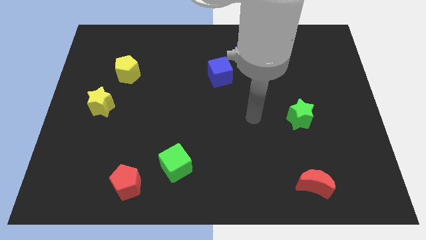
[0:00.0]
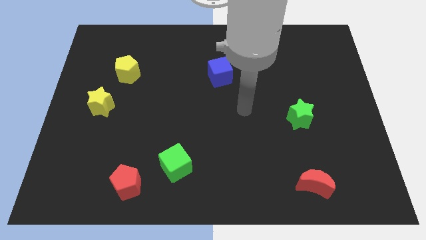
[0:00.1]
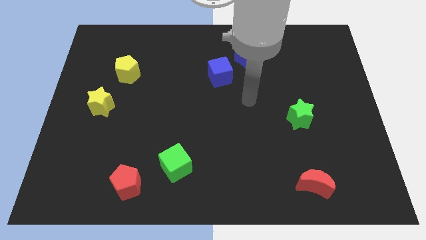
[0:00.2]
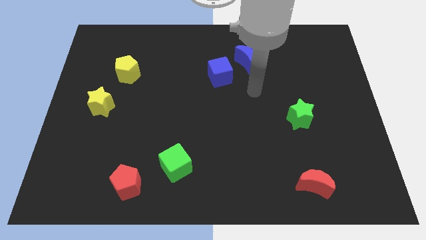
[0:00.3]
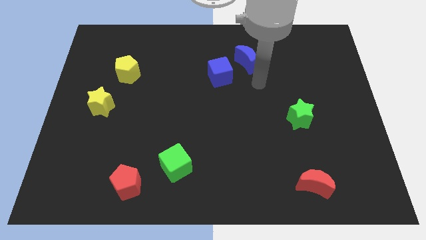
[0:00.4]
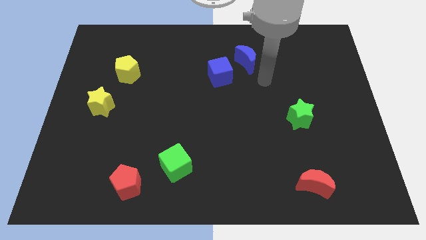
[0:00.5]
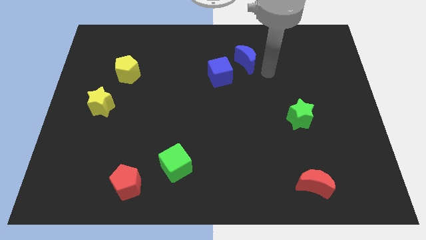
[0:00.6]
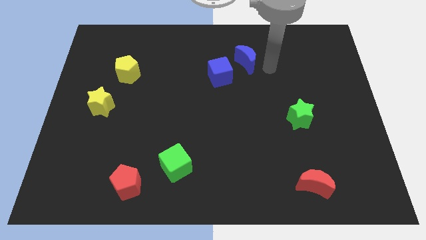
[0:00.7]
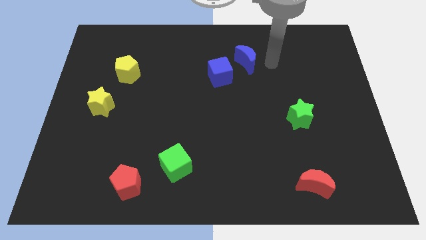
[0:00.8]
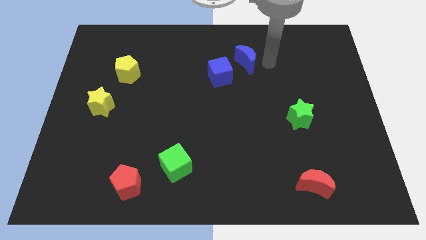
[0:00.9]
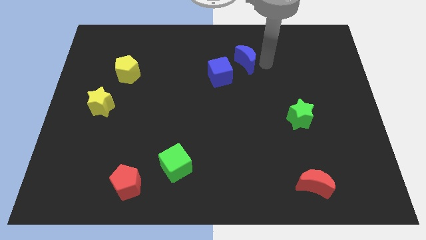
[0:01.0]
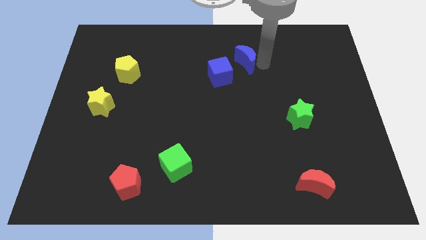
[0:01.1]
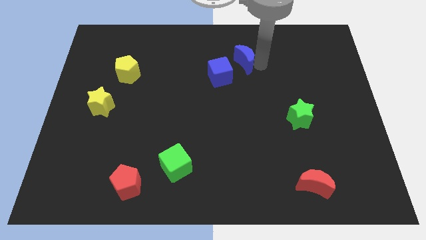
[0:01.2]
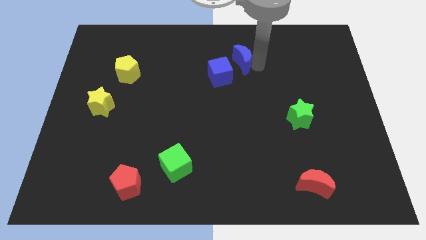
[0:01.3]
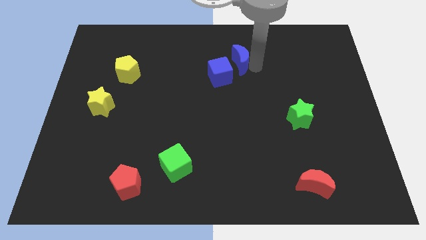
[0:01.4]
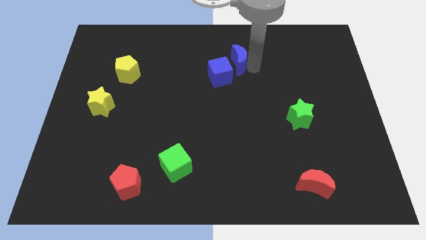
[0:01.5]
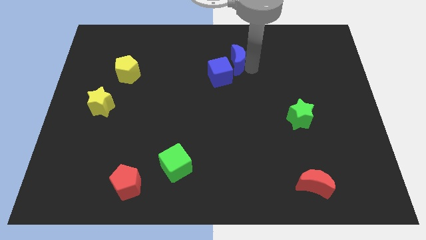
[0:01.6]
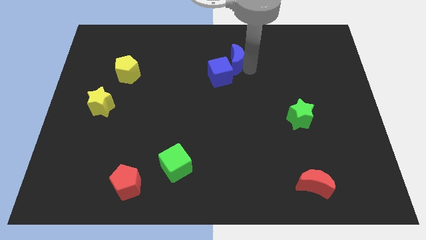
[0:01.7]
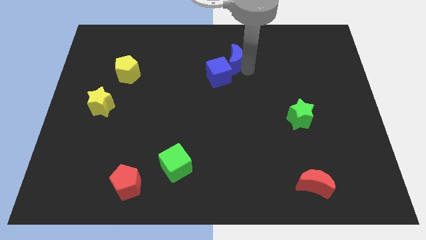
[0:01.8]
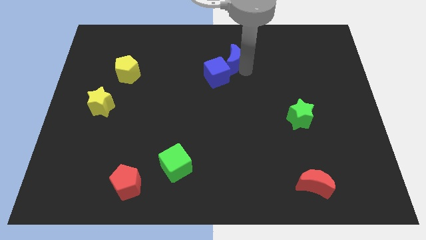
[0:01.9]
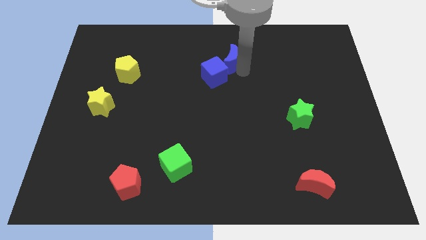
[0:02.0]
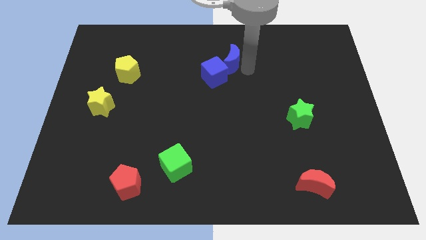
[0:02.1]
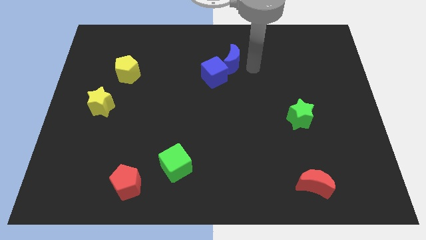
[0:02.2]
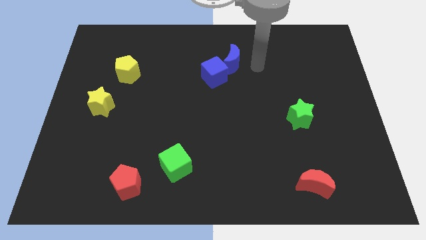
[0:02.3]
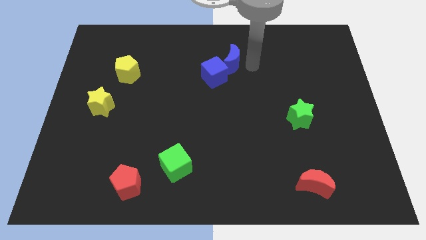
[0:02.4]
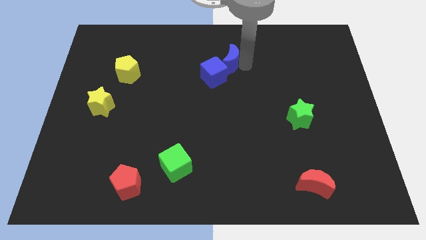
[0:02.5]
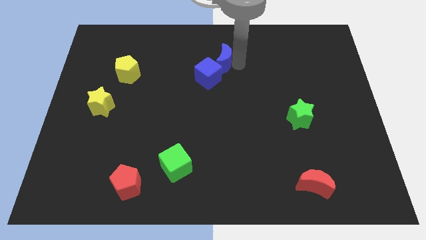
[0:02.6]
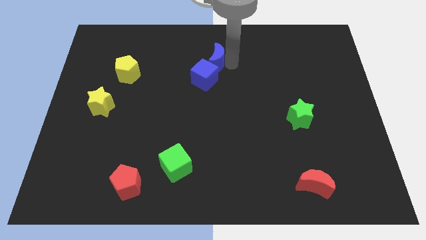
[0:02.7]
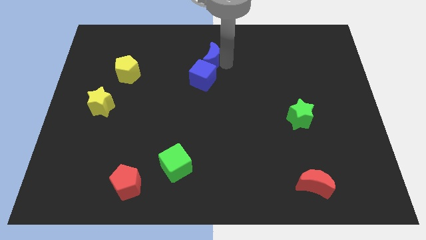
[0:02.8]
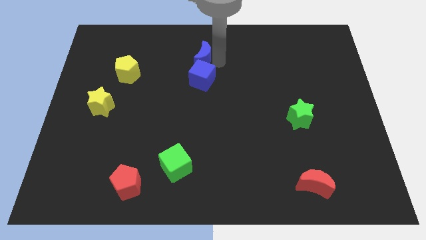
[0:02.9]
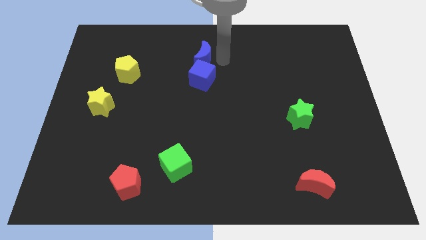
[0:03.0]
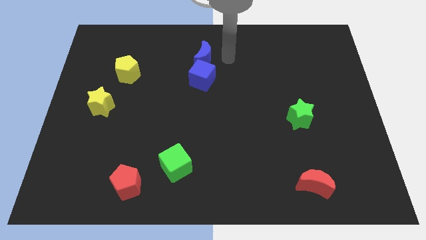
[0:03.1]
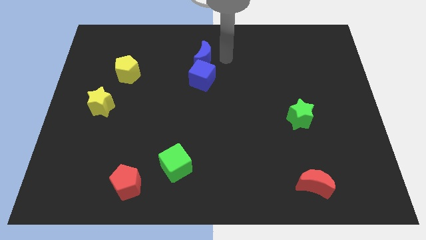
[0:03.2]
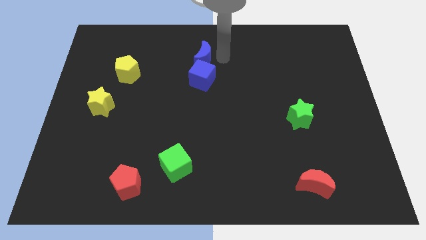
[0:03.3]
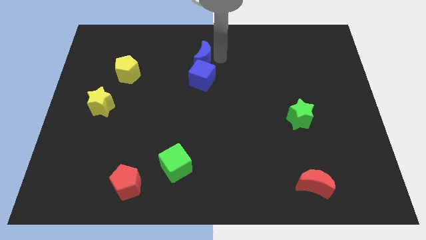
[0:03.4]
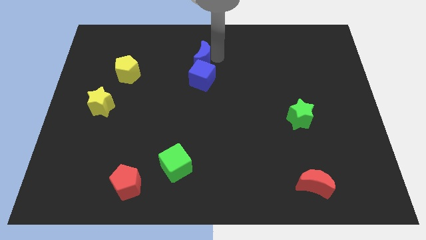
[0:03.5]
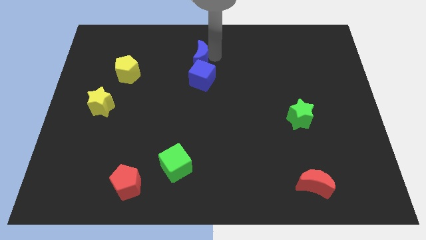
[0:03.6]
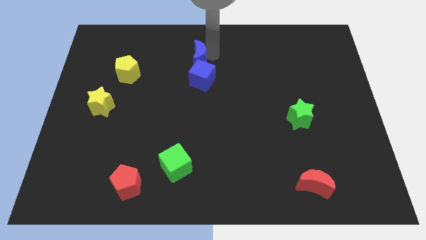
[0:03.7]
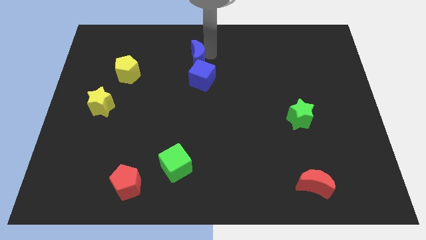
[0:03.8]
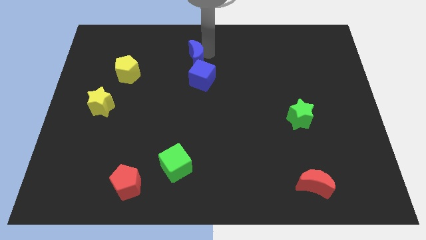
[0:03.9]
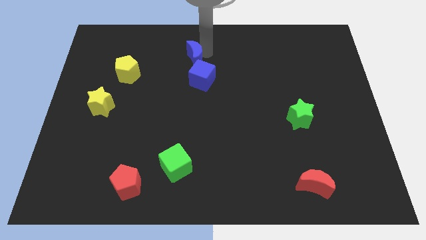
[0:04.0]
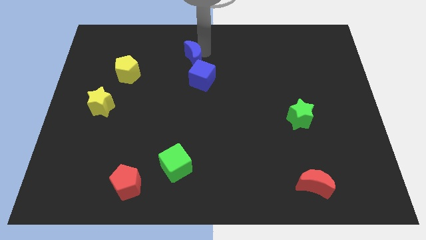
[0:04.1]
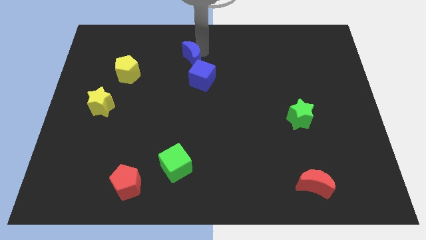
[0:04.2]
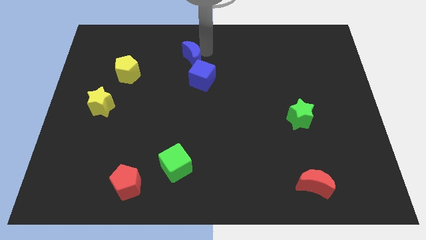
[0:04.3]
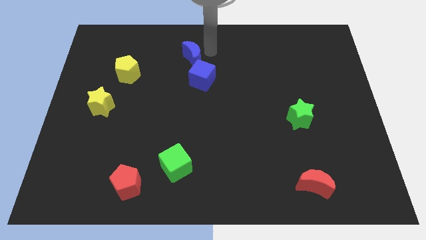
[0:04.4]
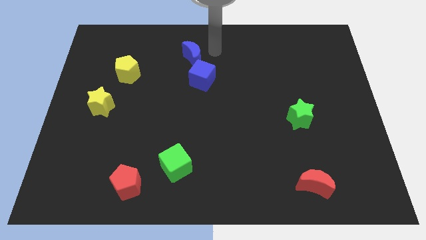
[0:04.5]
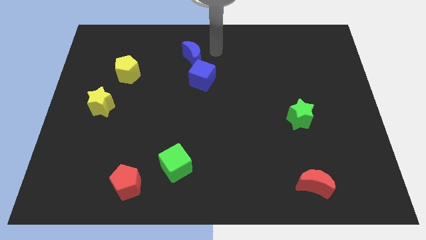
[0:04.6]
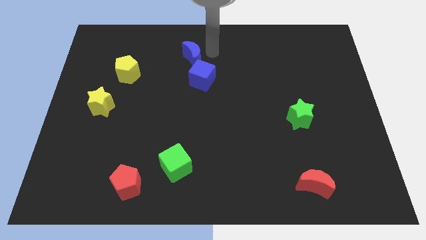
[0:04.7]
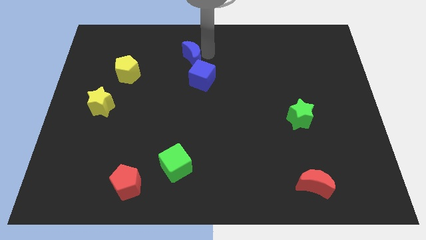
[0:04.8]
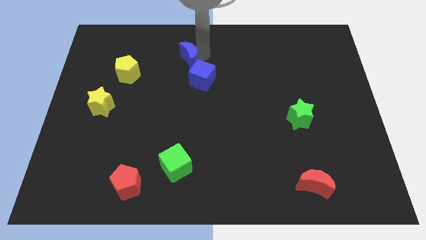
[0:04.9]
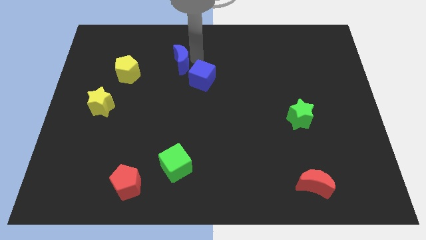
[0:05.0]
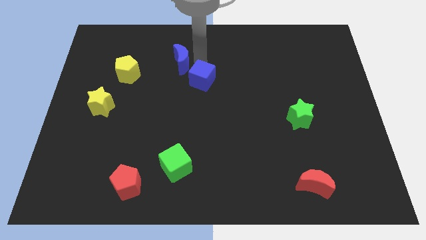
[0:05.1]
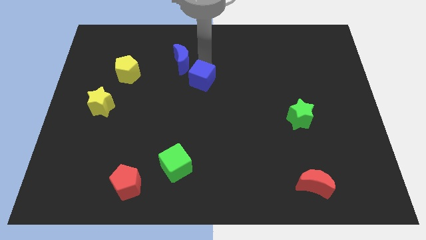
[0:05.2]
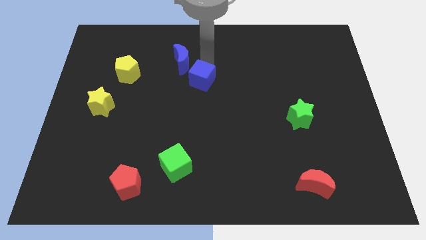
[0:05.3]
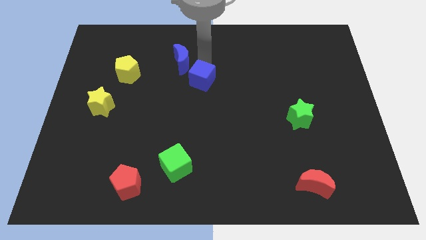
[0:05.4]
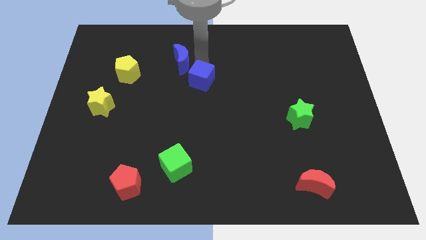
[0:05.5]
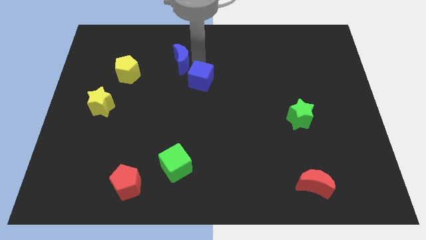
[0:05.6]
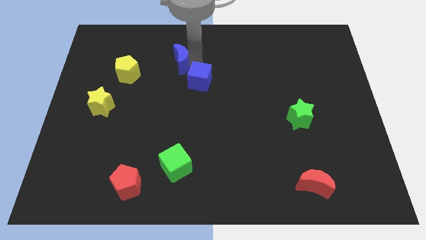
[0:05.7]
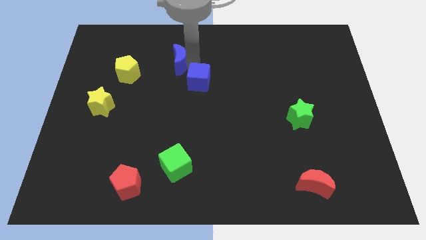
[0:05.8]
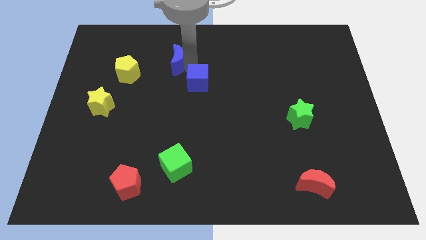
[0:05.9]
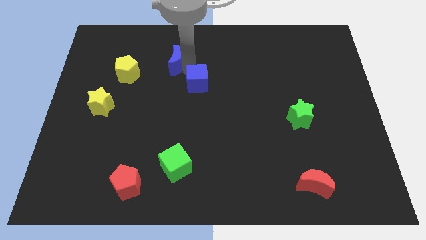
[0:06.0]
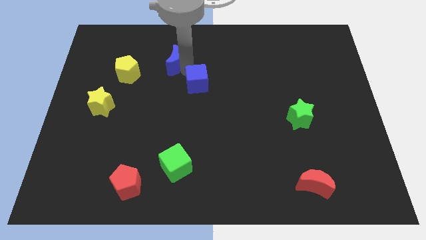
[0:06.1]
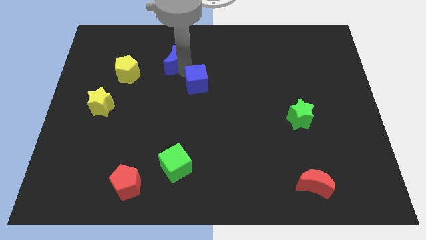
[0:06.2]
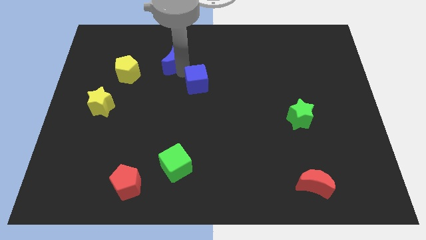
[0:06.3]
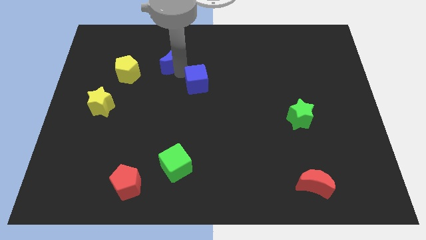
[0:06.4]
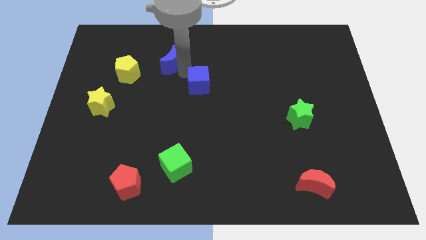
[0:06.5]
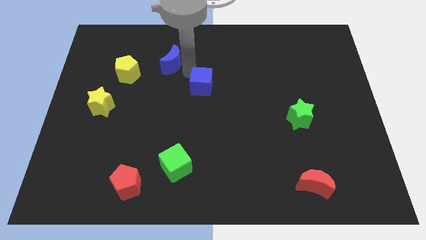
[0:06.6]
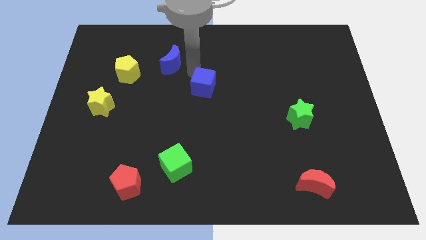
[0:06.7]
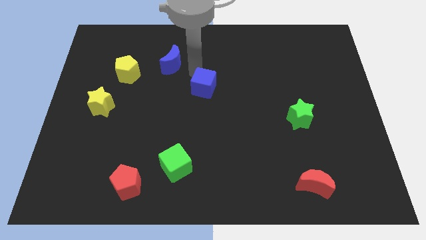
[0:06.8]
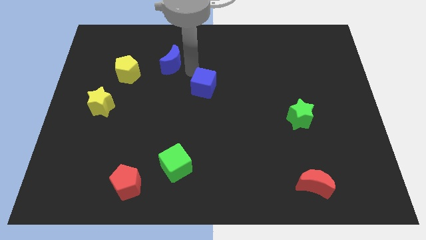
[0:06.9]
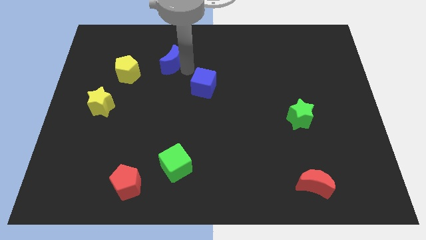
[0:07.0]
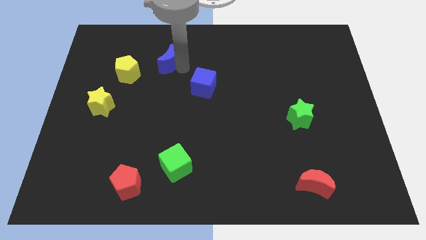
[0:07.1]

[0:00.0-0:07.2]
push the blue moon left

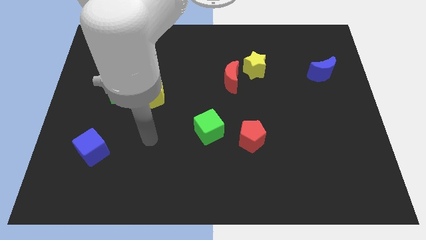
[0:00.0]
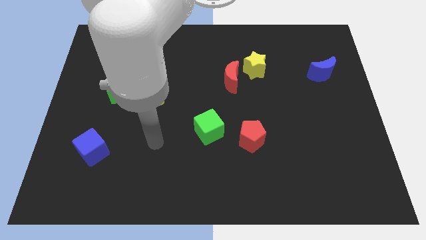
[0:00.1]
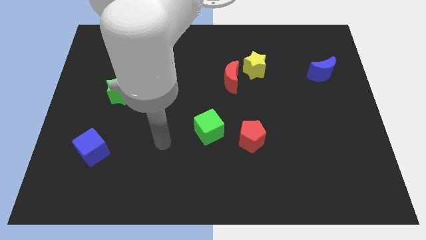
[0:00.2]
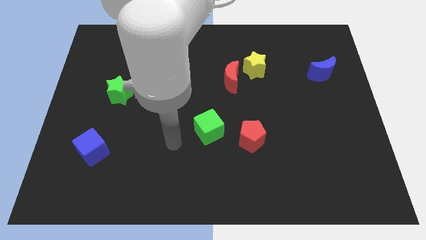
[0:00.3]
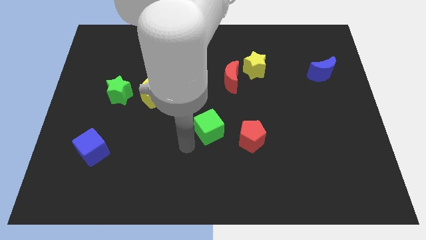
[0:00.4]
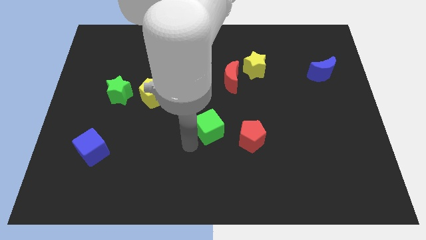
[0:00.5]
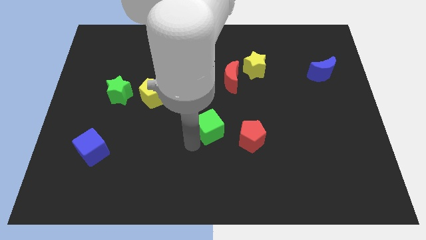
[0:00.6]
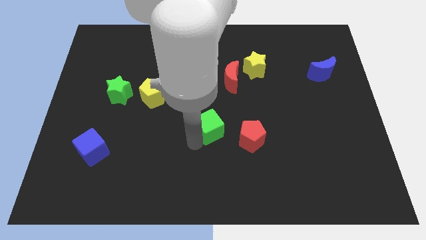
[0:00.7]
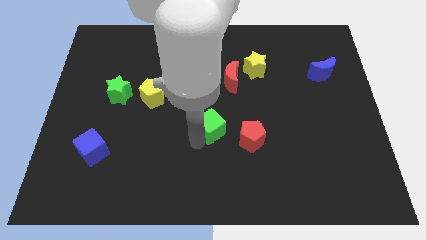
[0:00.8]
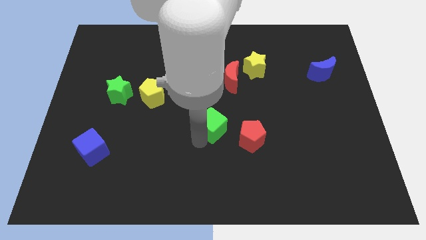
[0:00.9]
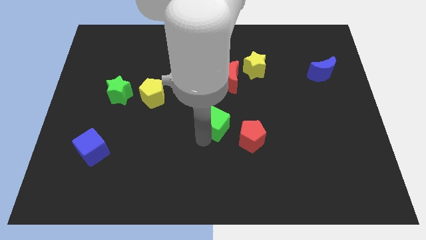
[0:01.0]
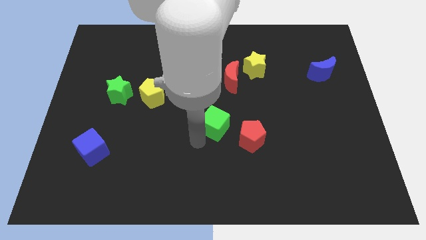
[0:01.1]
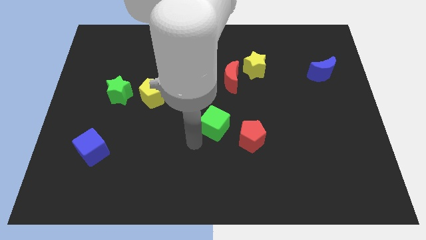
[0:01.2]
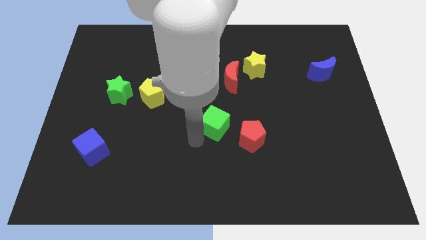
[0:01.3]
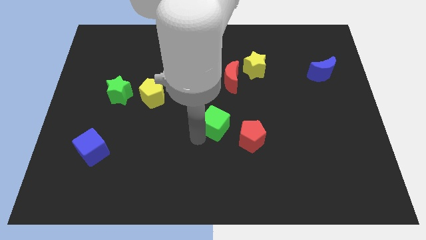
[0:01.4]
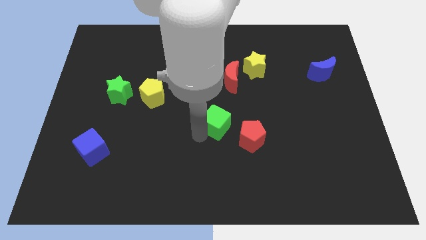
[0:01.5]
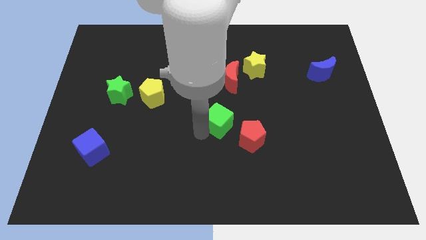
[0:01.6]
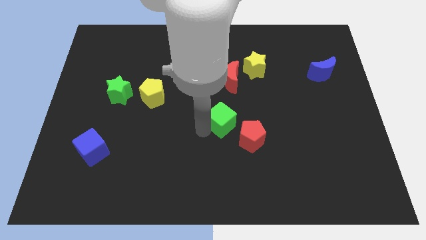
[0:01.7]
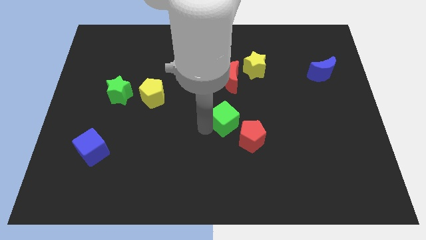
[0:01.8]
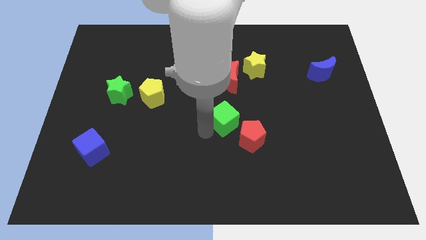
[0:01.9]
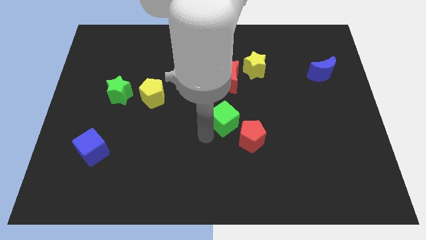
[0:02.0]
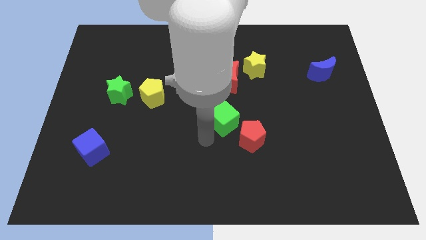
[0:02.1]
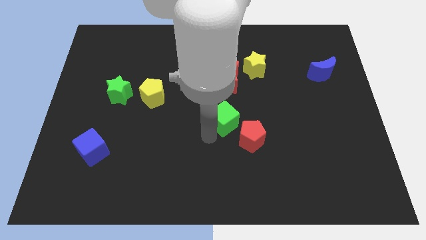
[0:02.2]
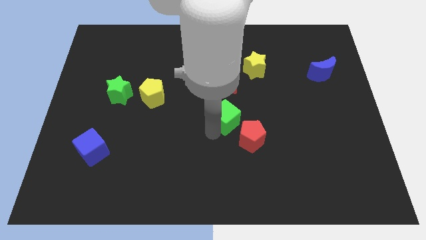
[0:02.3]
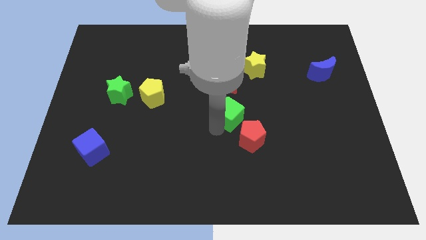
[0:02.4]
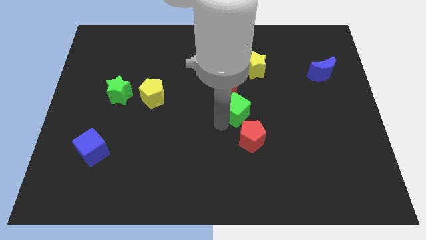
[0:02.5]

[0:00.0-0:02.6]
move the green cube slightly upwards and to the right
